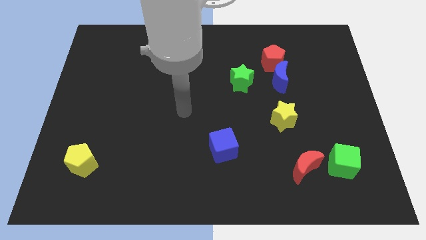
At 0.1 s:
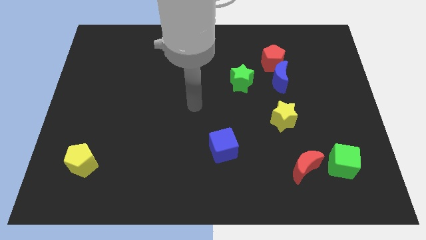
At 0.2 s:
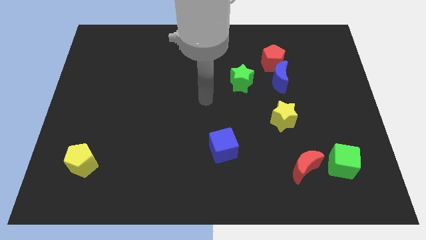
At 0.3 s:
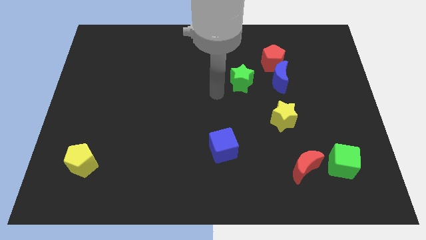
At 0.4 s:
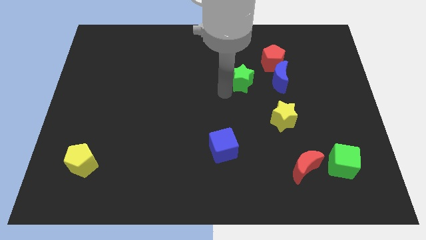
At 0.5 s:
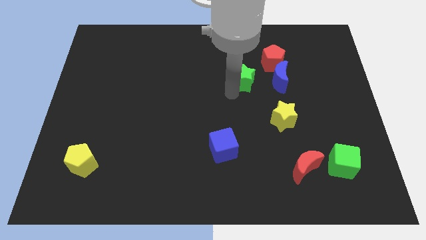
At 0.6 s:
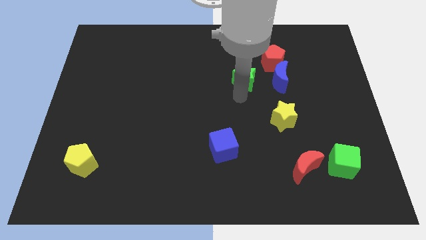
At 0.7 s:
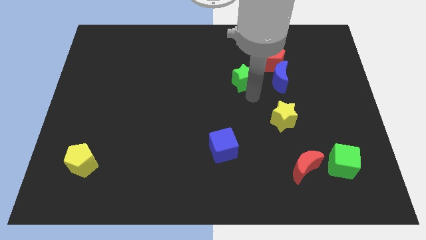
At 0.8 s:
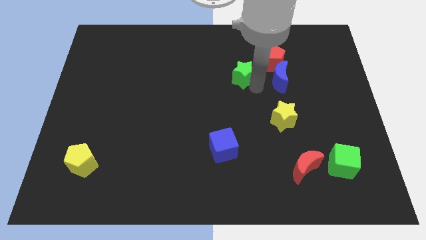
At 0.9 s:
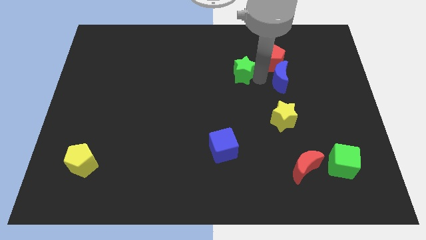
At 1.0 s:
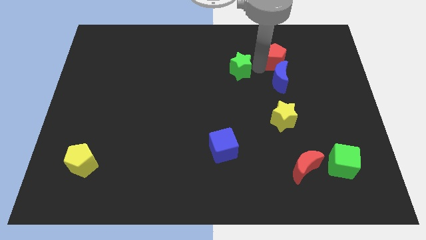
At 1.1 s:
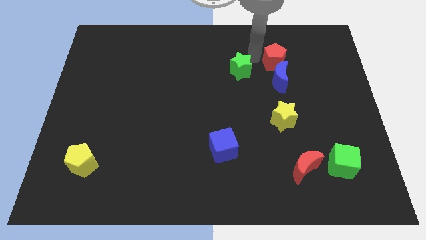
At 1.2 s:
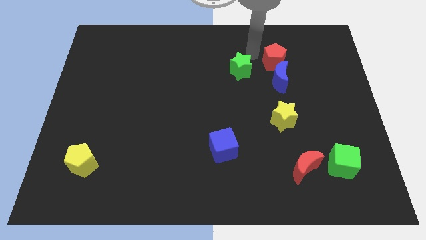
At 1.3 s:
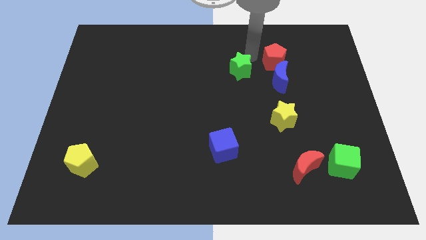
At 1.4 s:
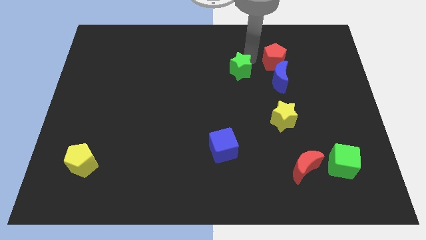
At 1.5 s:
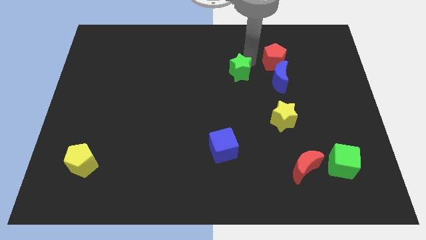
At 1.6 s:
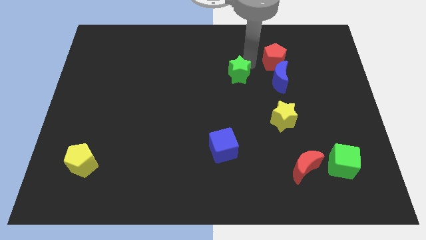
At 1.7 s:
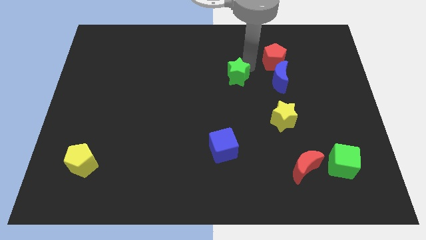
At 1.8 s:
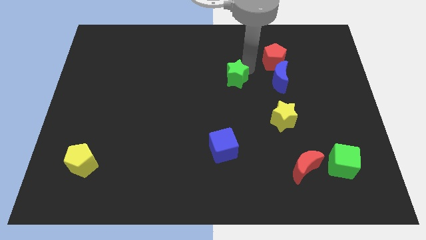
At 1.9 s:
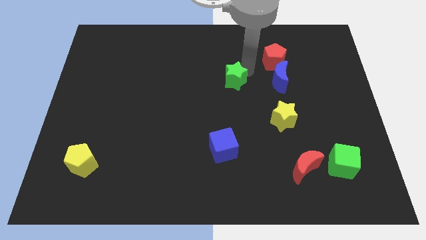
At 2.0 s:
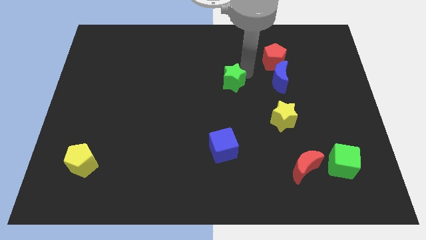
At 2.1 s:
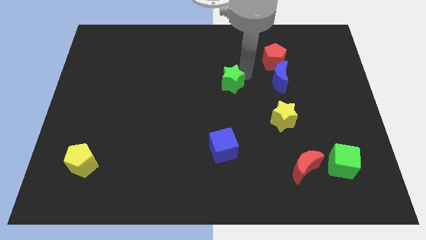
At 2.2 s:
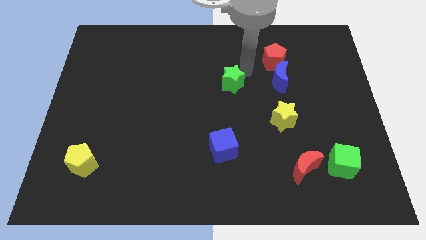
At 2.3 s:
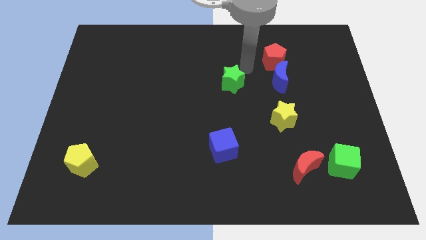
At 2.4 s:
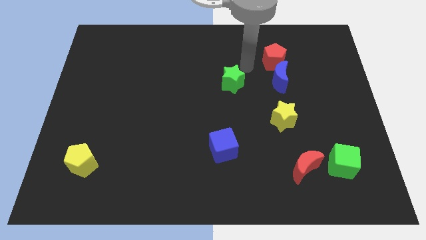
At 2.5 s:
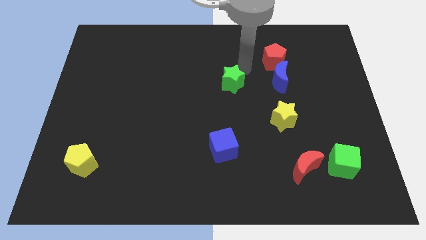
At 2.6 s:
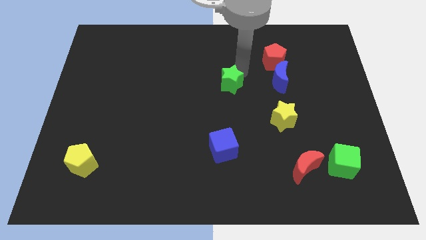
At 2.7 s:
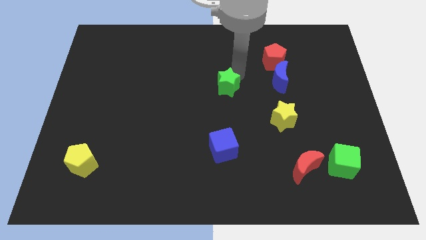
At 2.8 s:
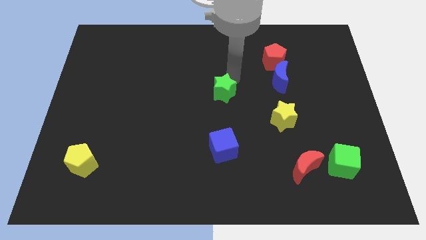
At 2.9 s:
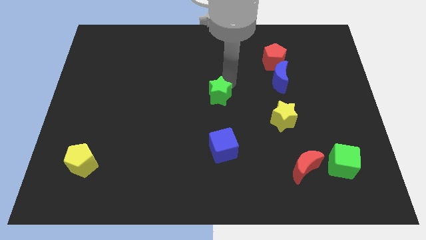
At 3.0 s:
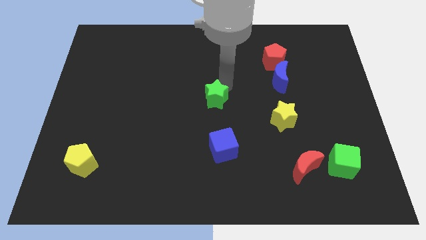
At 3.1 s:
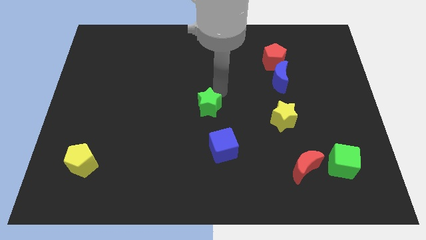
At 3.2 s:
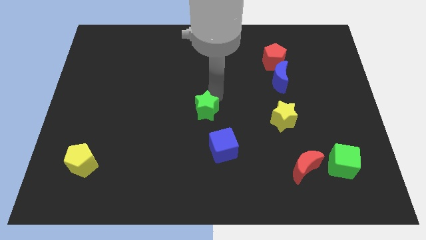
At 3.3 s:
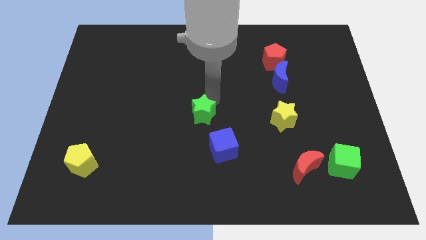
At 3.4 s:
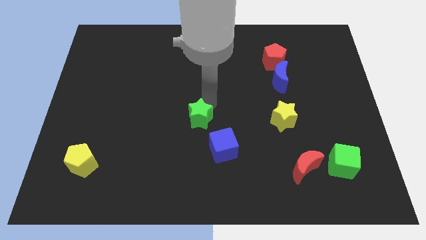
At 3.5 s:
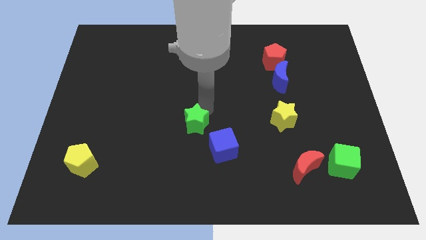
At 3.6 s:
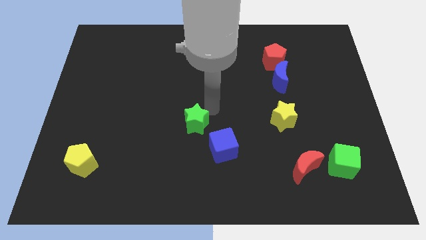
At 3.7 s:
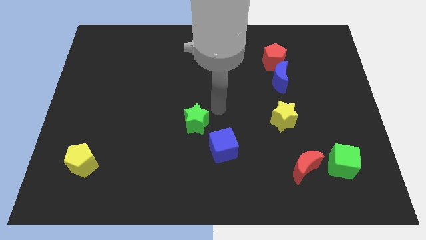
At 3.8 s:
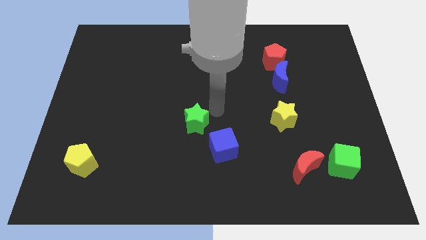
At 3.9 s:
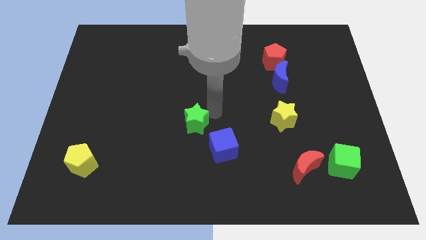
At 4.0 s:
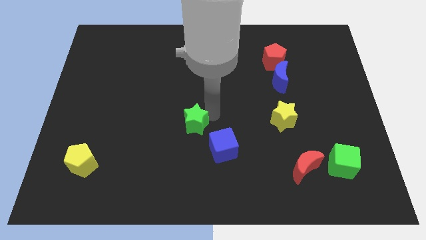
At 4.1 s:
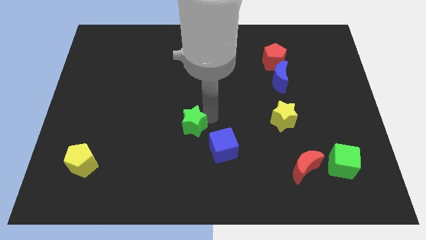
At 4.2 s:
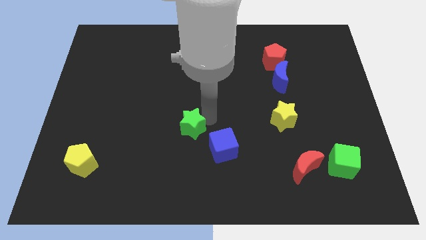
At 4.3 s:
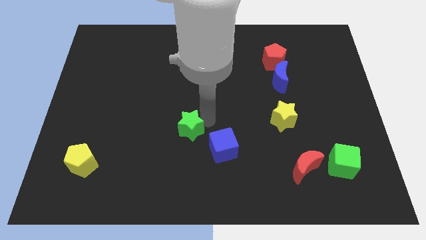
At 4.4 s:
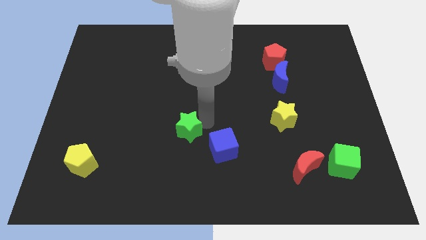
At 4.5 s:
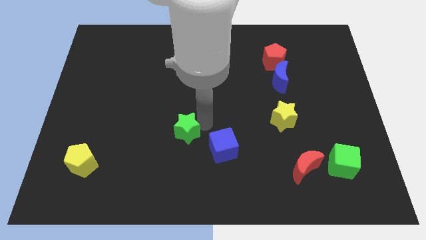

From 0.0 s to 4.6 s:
move the green star downwards and then left

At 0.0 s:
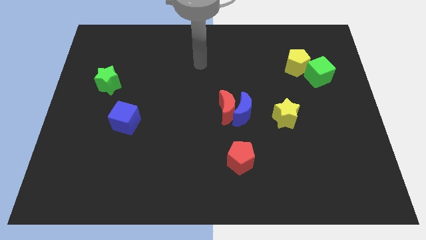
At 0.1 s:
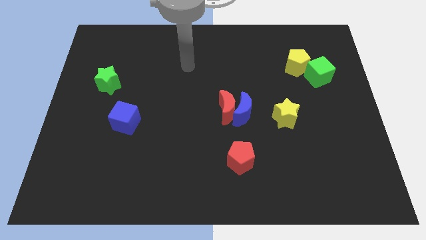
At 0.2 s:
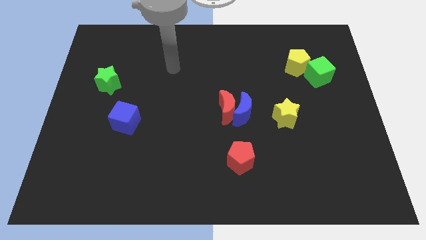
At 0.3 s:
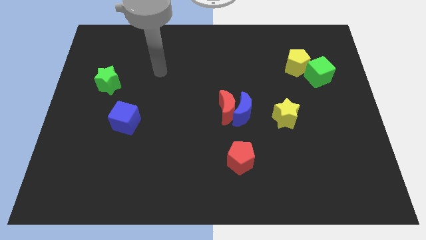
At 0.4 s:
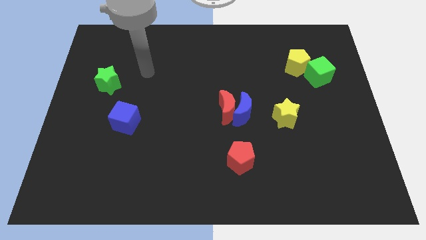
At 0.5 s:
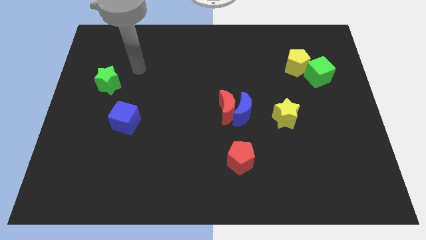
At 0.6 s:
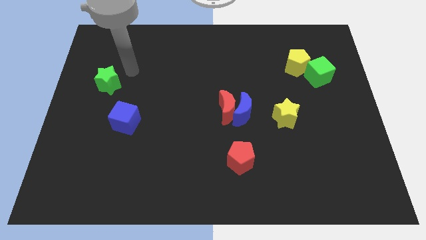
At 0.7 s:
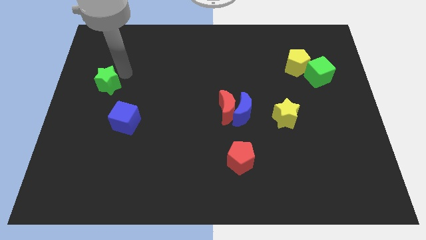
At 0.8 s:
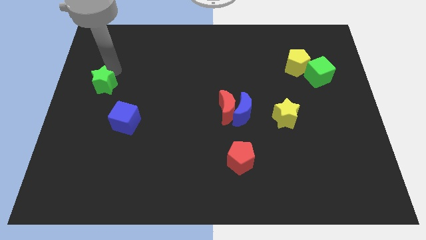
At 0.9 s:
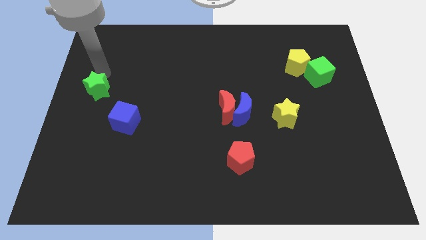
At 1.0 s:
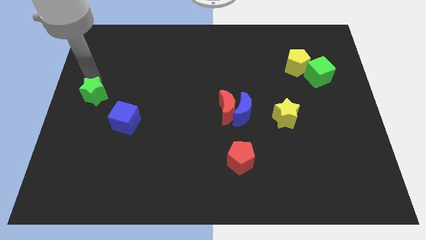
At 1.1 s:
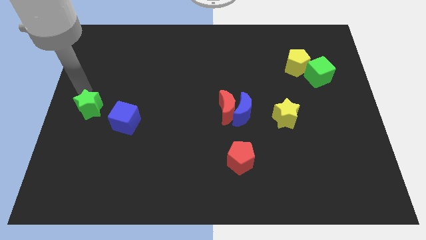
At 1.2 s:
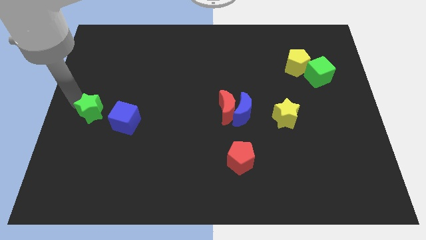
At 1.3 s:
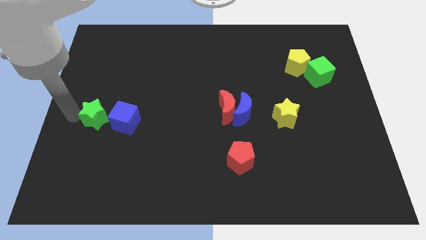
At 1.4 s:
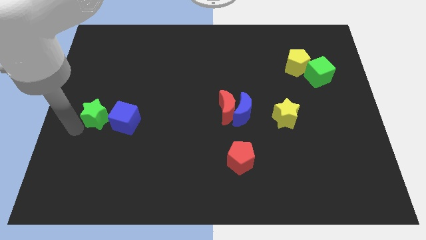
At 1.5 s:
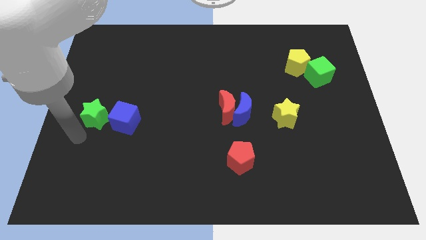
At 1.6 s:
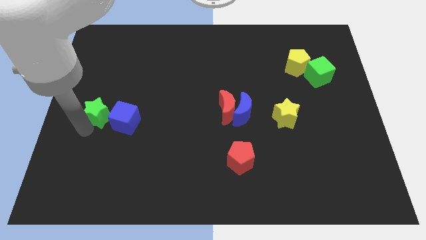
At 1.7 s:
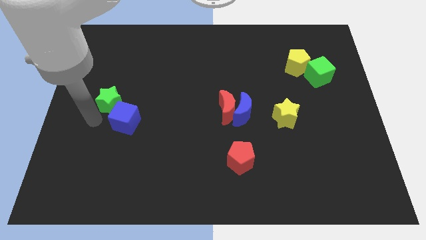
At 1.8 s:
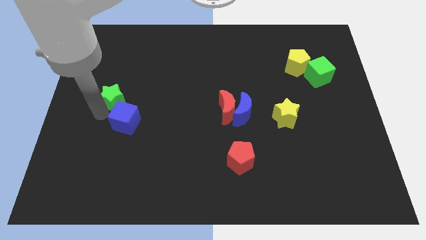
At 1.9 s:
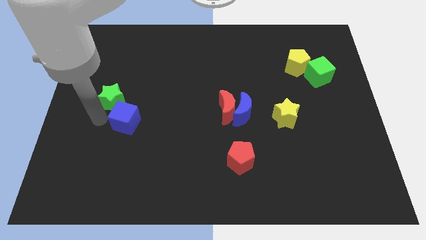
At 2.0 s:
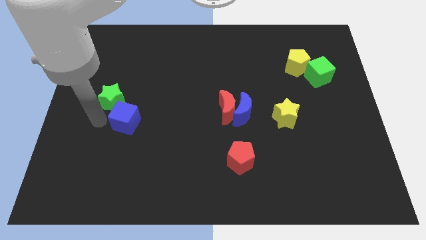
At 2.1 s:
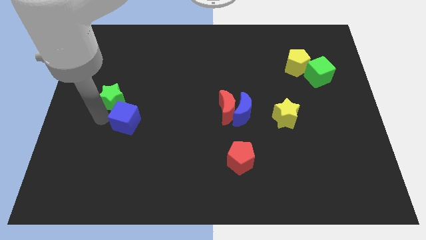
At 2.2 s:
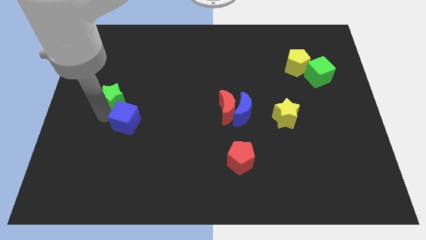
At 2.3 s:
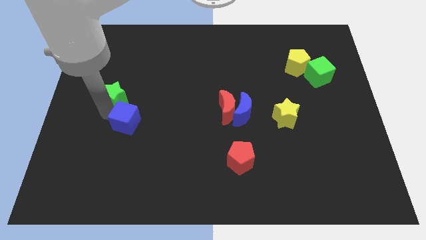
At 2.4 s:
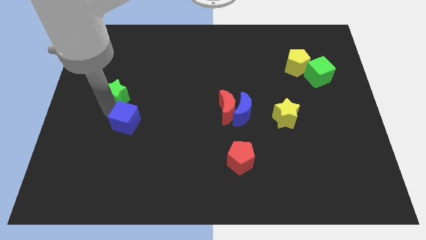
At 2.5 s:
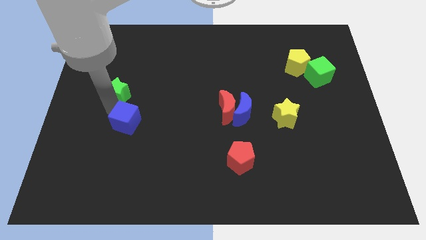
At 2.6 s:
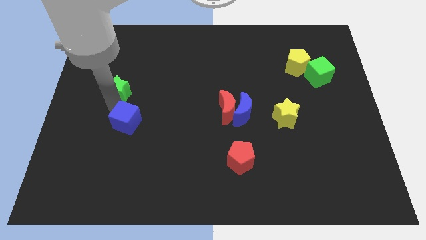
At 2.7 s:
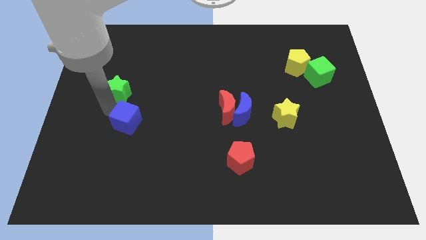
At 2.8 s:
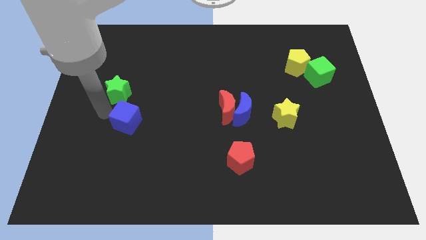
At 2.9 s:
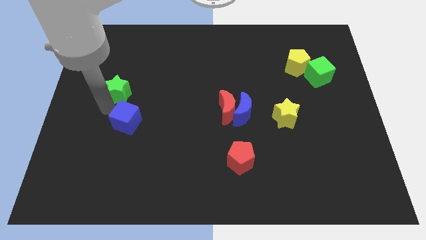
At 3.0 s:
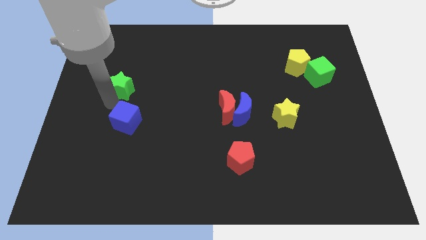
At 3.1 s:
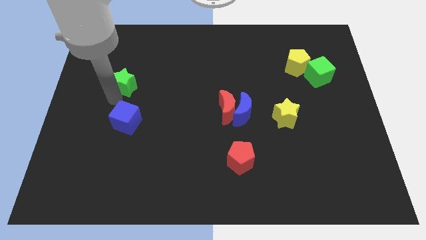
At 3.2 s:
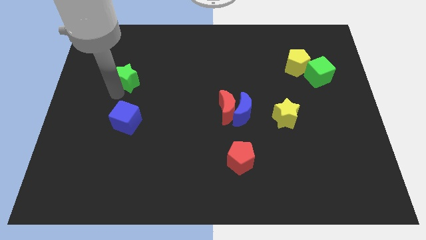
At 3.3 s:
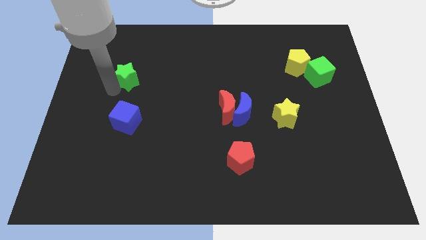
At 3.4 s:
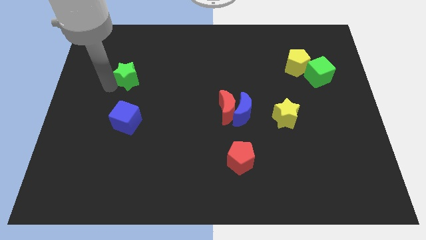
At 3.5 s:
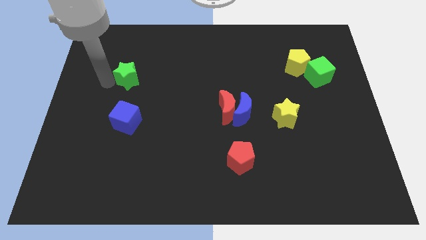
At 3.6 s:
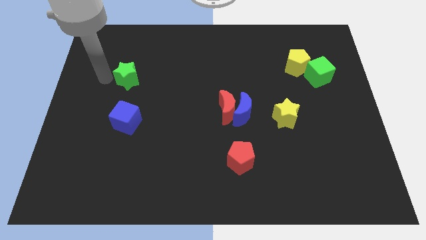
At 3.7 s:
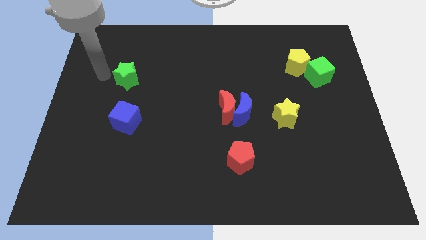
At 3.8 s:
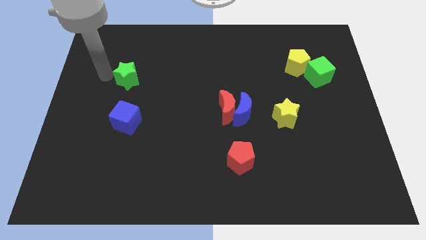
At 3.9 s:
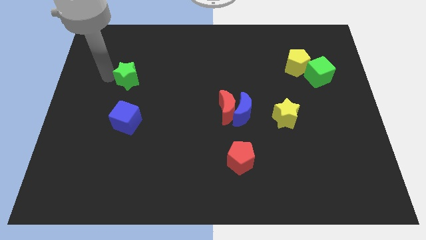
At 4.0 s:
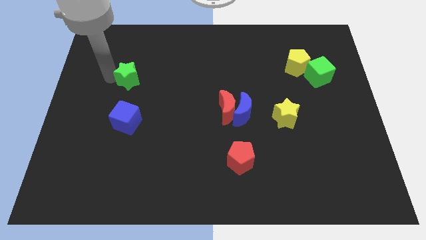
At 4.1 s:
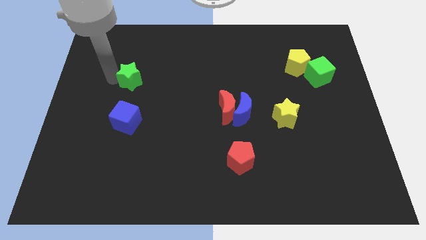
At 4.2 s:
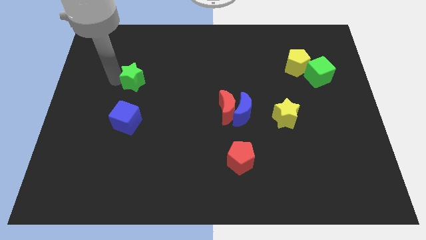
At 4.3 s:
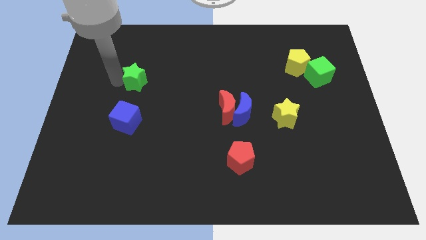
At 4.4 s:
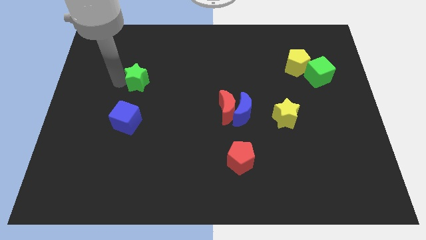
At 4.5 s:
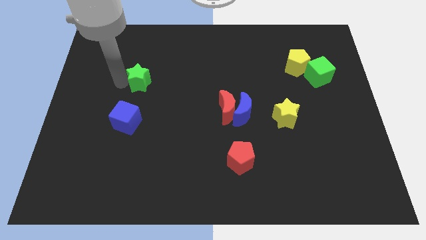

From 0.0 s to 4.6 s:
push the green star somewhat to the right
